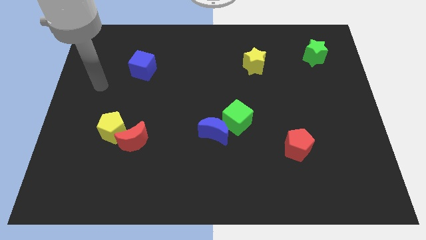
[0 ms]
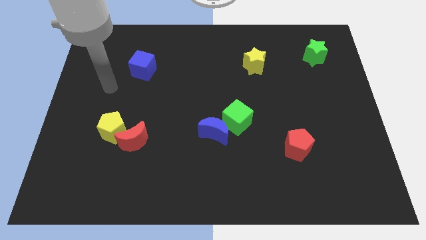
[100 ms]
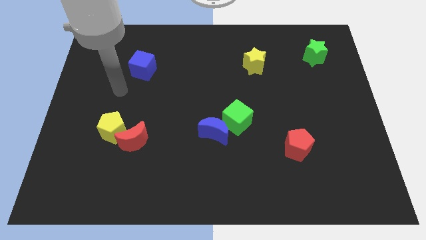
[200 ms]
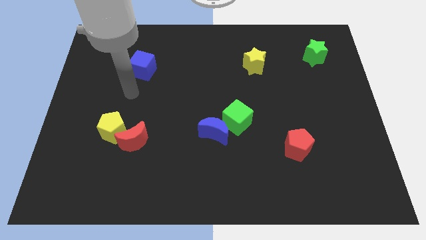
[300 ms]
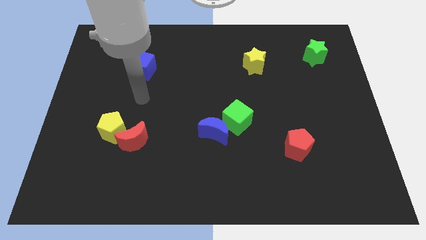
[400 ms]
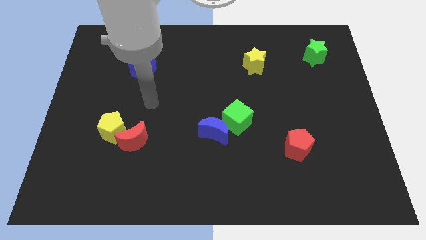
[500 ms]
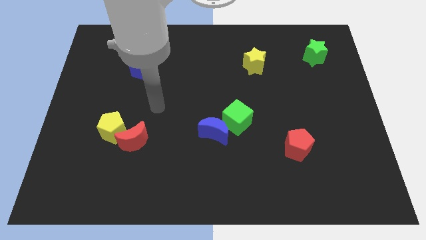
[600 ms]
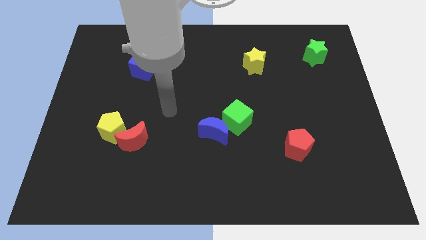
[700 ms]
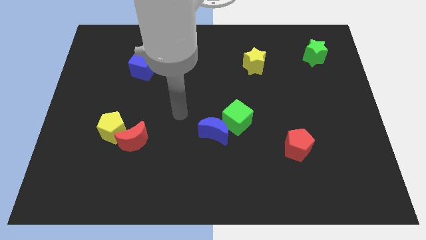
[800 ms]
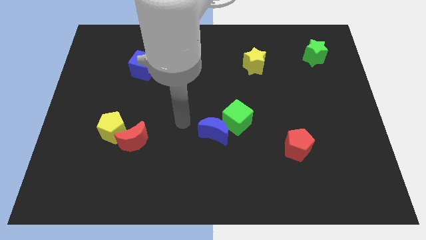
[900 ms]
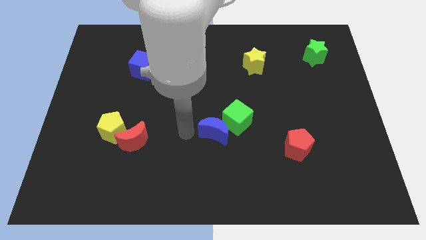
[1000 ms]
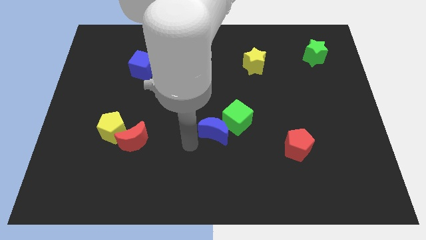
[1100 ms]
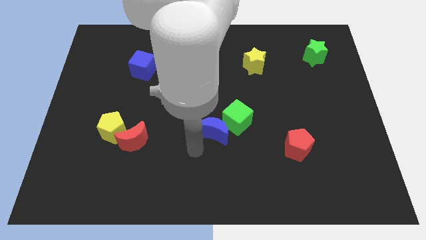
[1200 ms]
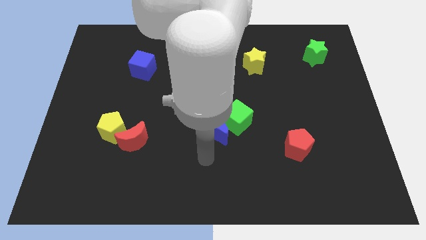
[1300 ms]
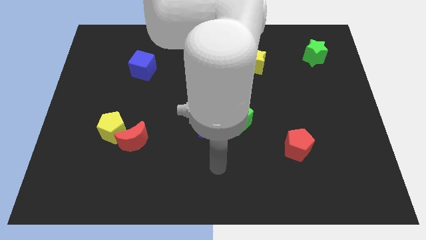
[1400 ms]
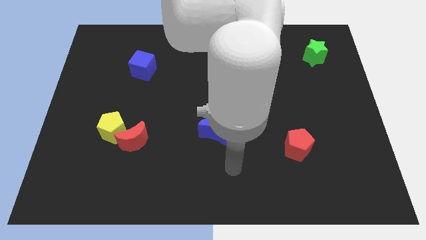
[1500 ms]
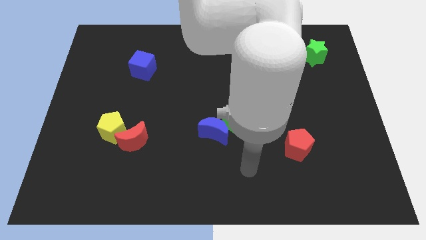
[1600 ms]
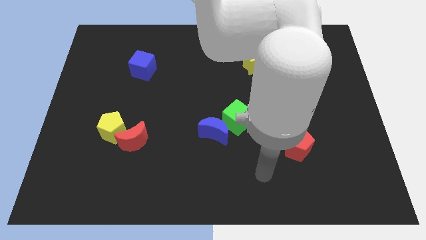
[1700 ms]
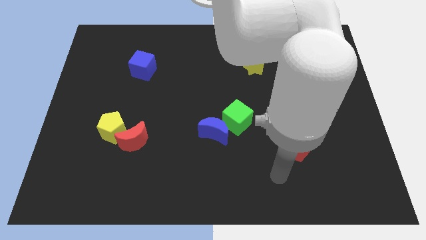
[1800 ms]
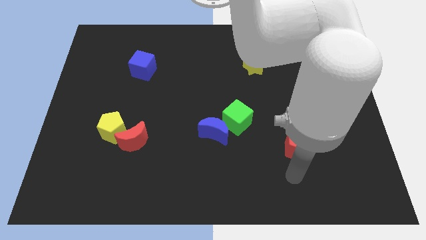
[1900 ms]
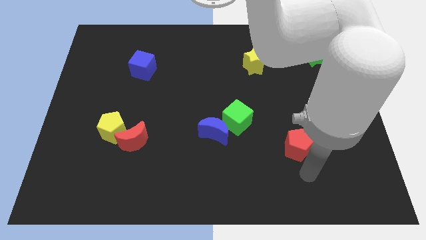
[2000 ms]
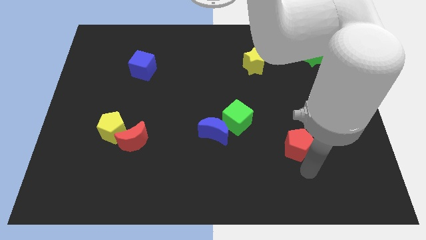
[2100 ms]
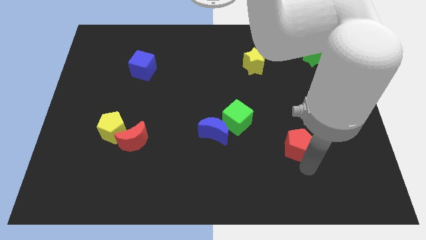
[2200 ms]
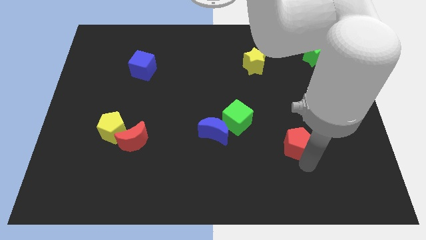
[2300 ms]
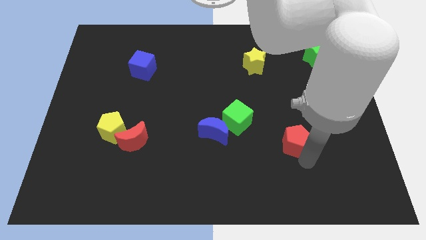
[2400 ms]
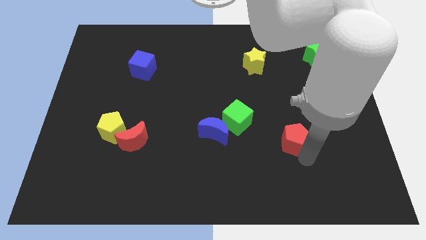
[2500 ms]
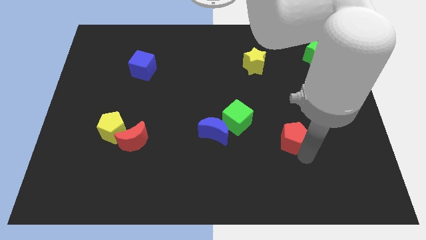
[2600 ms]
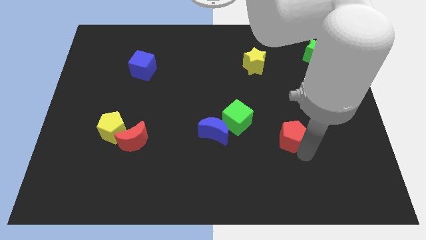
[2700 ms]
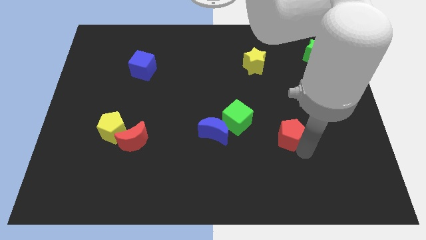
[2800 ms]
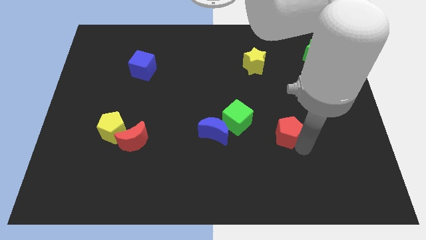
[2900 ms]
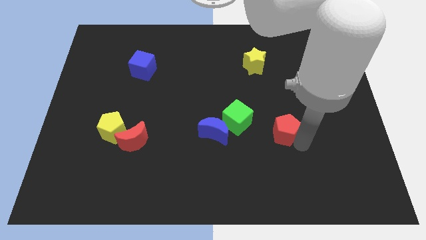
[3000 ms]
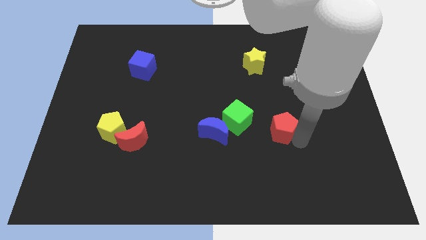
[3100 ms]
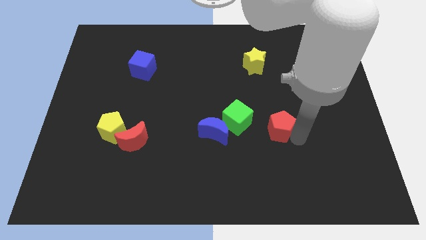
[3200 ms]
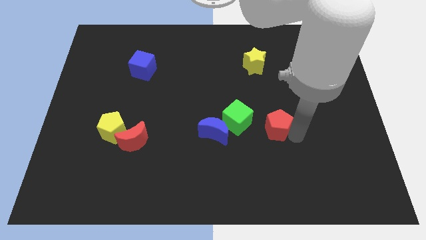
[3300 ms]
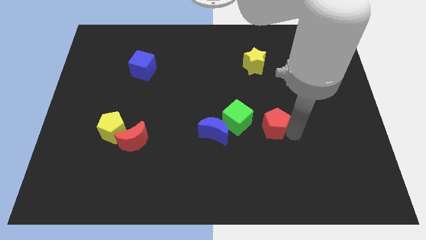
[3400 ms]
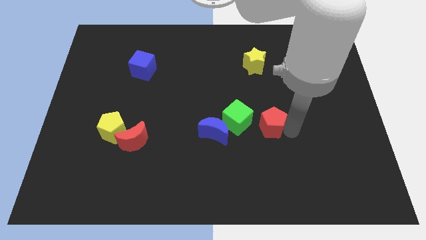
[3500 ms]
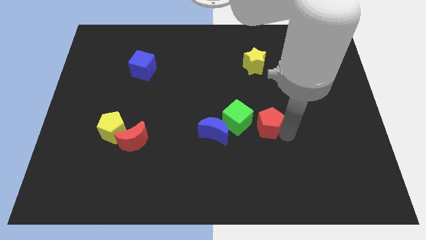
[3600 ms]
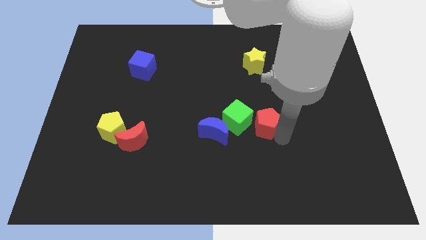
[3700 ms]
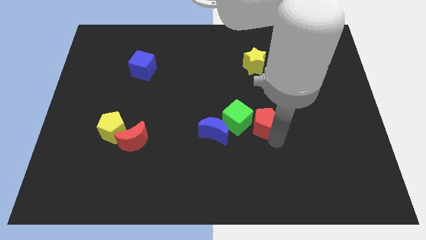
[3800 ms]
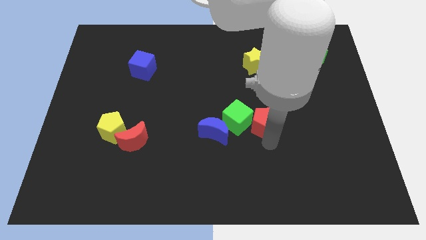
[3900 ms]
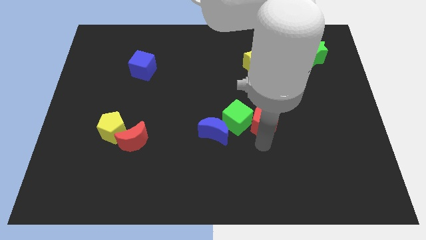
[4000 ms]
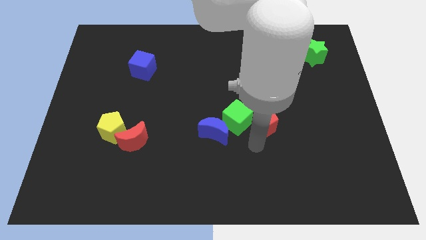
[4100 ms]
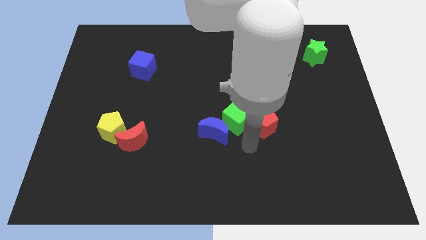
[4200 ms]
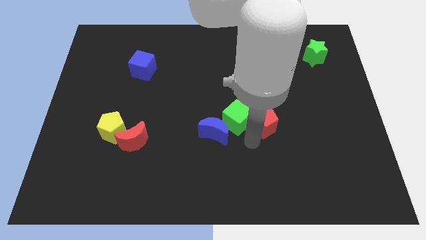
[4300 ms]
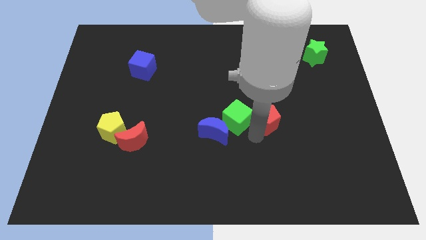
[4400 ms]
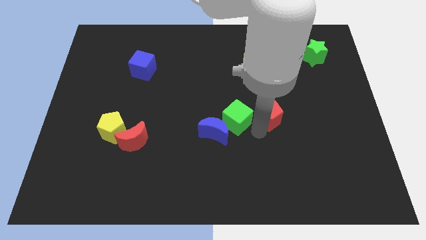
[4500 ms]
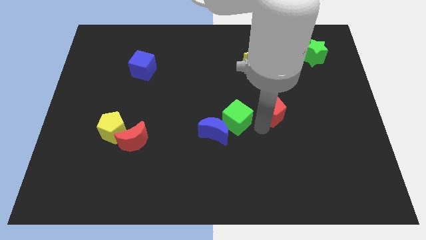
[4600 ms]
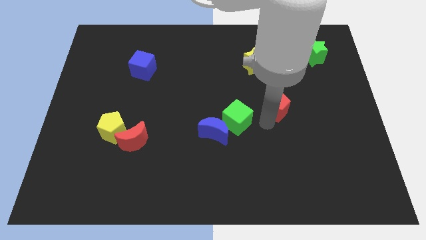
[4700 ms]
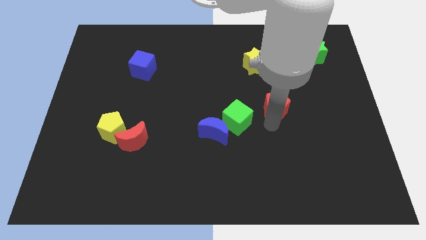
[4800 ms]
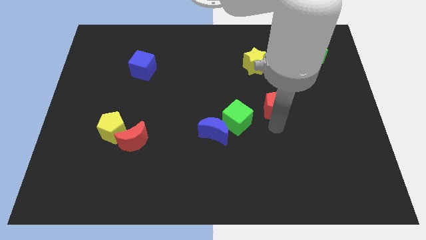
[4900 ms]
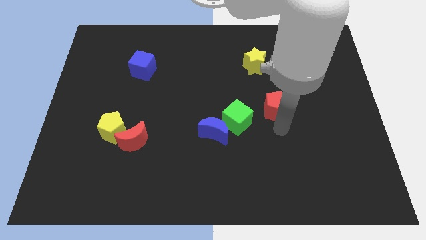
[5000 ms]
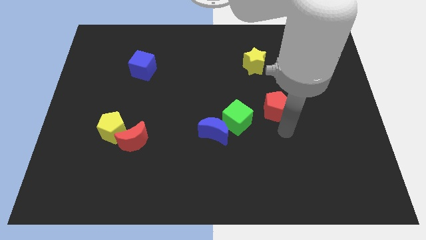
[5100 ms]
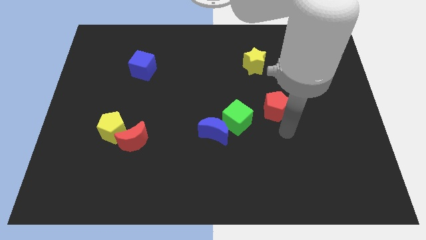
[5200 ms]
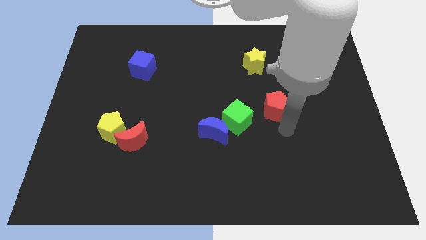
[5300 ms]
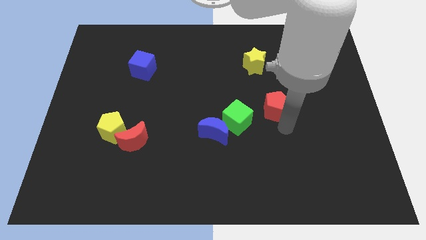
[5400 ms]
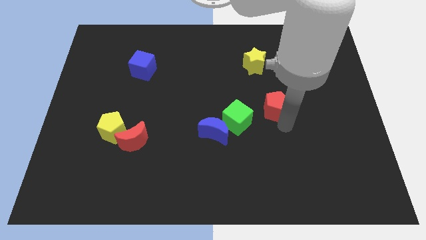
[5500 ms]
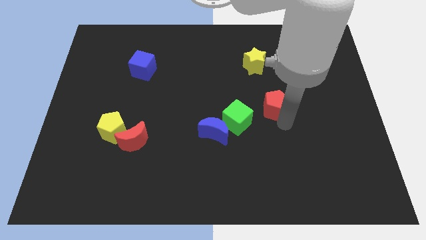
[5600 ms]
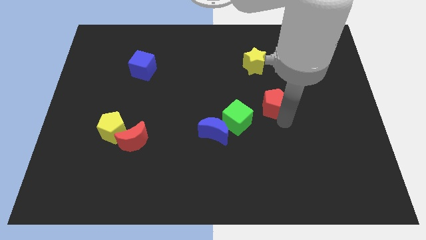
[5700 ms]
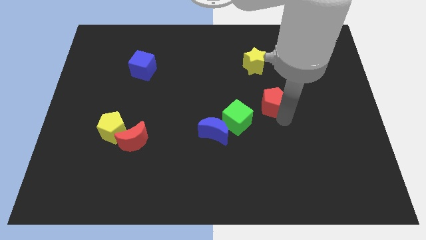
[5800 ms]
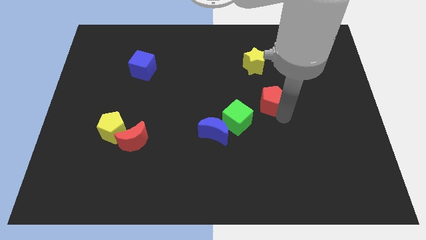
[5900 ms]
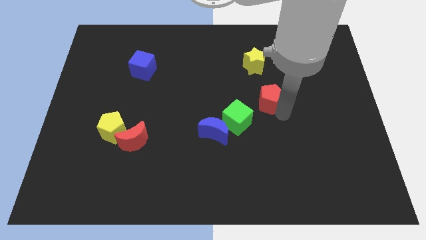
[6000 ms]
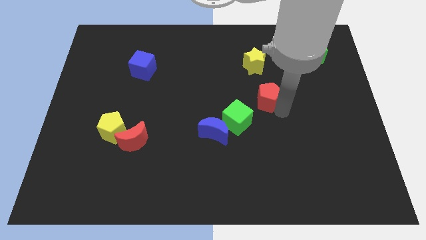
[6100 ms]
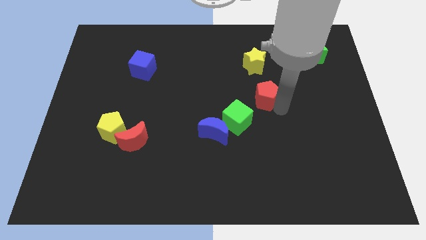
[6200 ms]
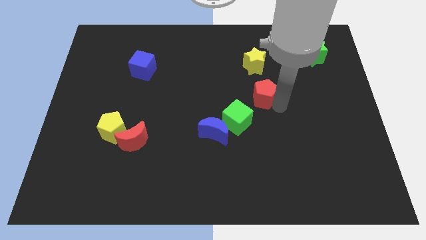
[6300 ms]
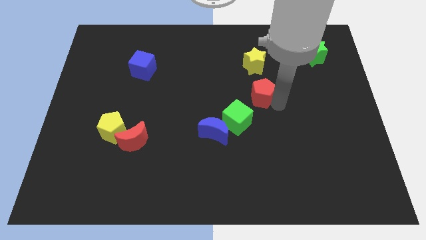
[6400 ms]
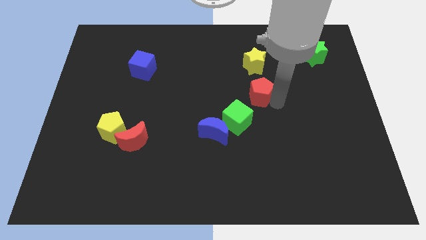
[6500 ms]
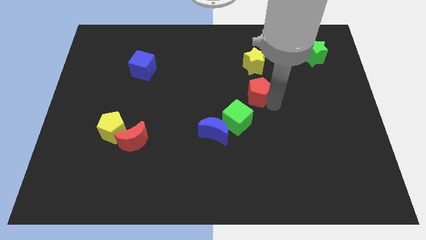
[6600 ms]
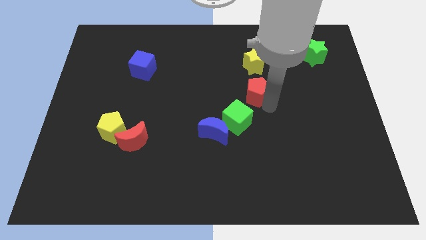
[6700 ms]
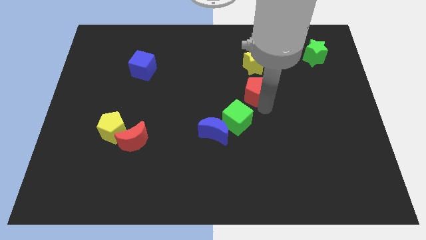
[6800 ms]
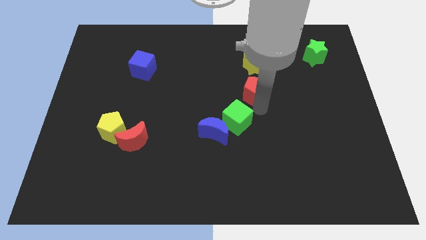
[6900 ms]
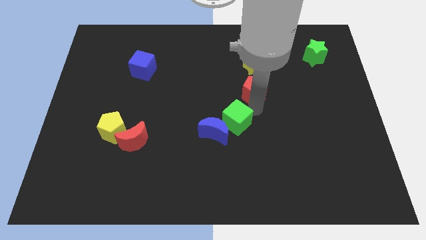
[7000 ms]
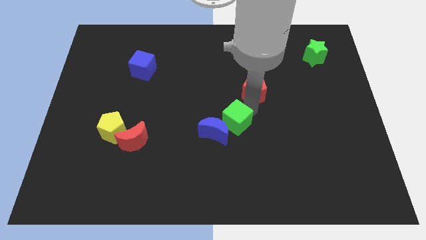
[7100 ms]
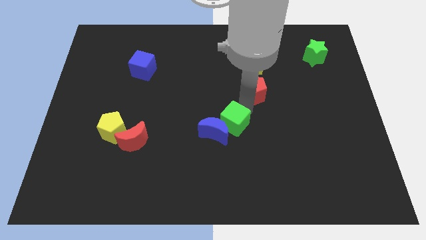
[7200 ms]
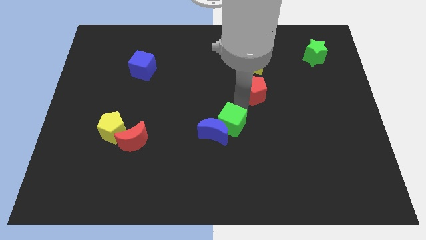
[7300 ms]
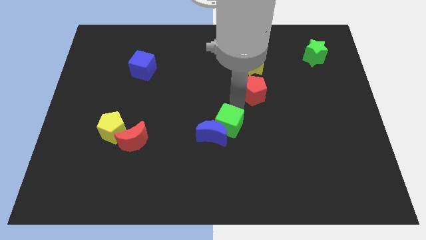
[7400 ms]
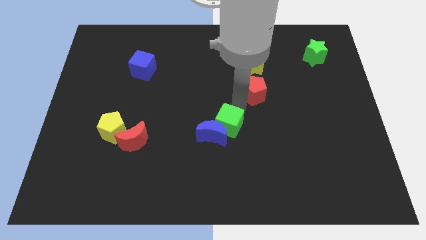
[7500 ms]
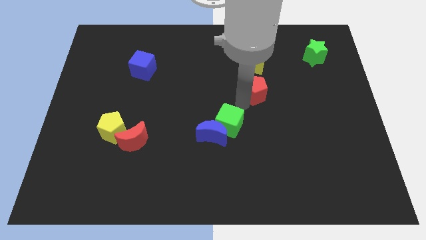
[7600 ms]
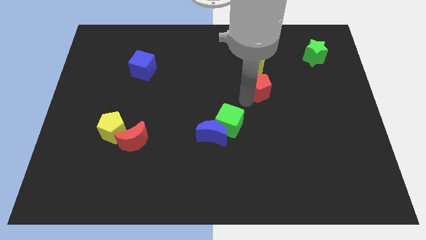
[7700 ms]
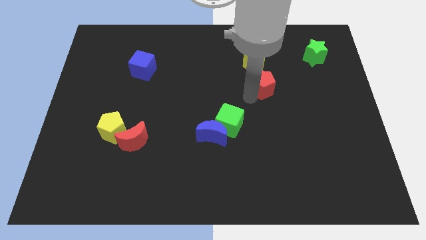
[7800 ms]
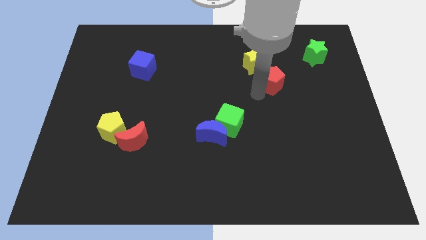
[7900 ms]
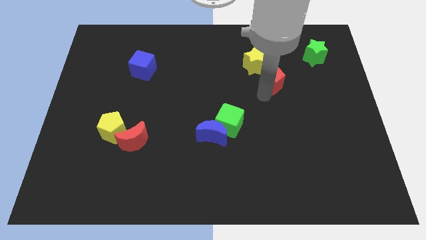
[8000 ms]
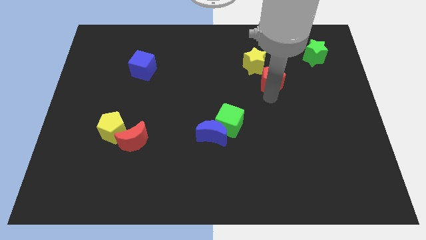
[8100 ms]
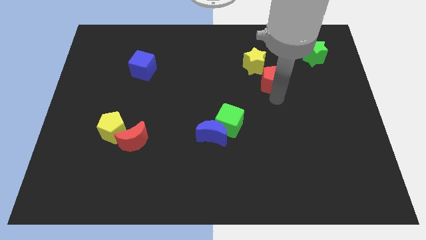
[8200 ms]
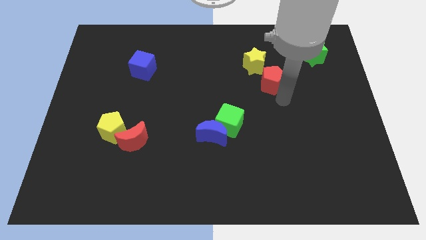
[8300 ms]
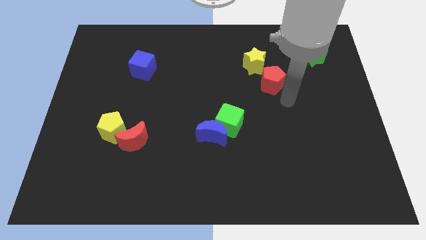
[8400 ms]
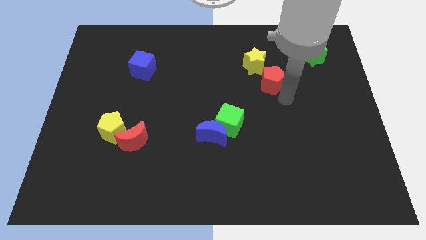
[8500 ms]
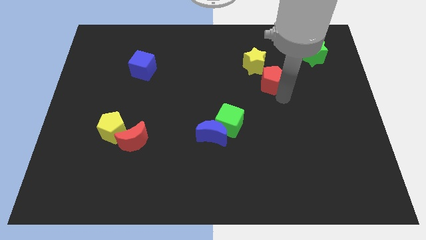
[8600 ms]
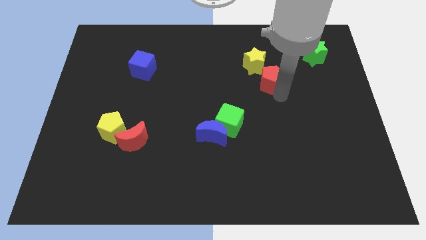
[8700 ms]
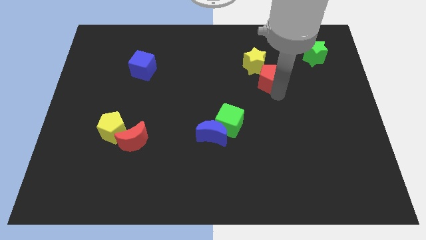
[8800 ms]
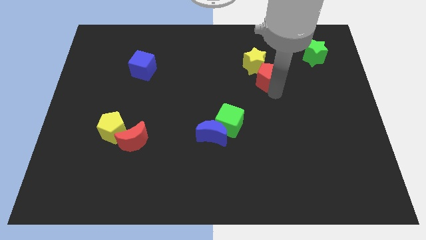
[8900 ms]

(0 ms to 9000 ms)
move the red pentagon next to the yellow star
